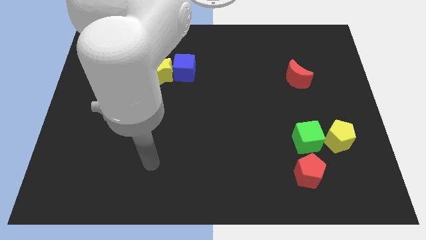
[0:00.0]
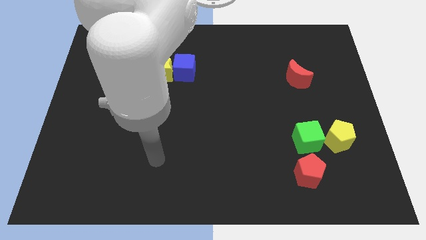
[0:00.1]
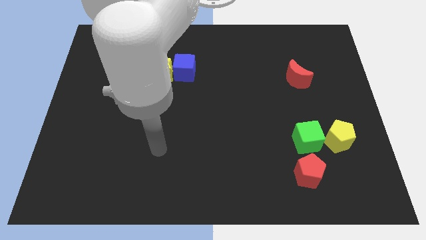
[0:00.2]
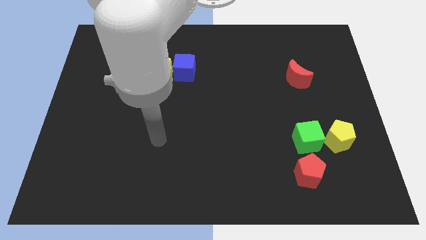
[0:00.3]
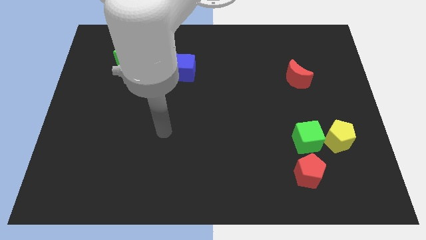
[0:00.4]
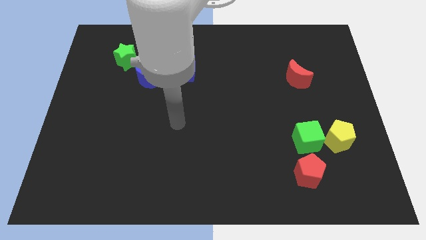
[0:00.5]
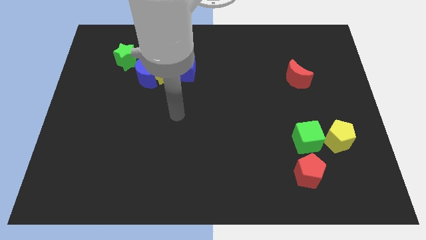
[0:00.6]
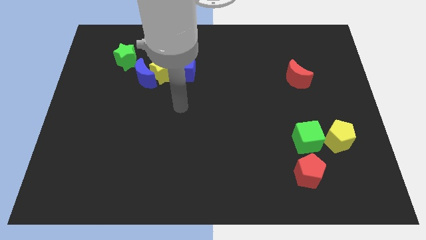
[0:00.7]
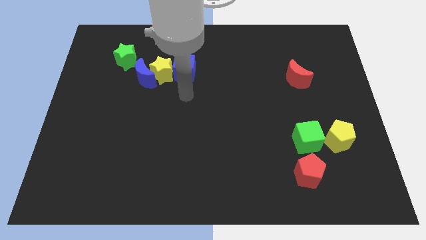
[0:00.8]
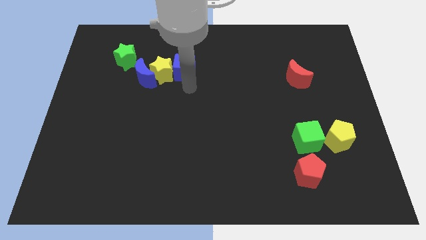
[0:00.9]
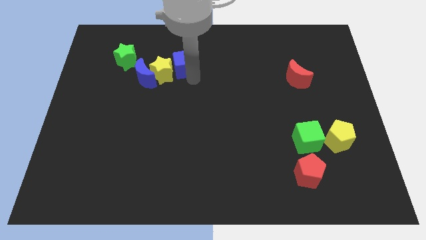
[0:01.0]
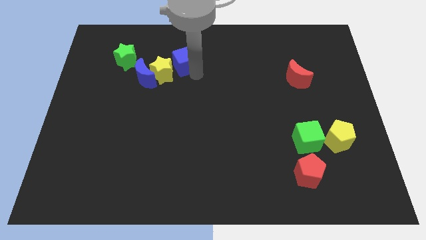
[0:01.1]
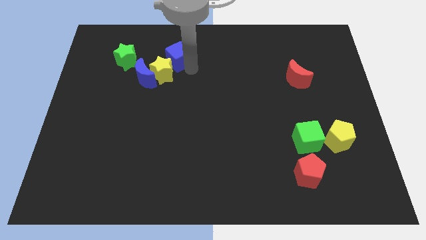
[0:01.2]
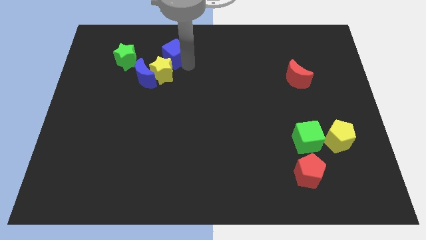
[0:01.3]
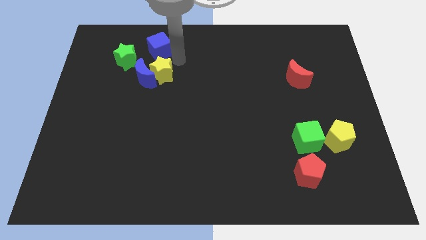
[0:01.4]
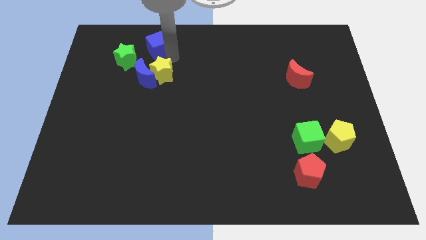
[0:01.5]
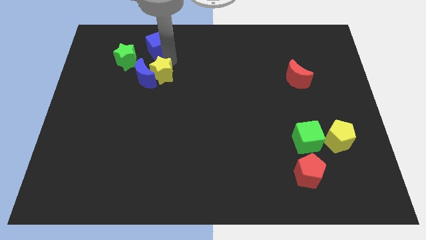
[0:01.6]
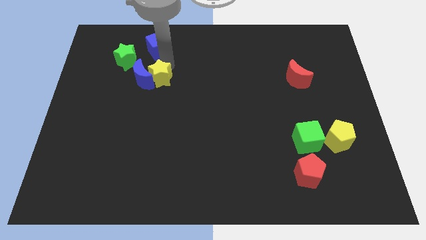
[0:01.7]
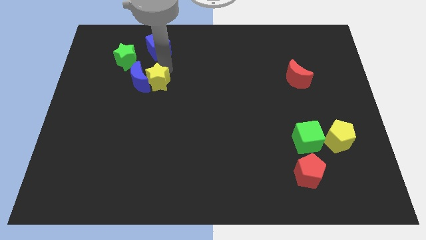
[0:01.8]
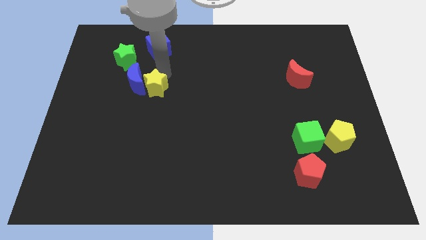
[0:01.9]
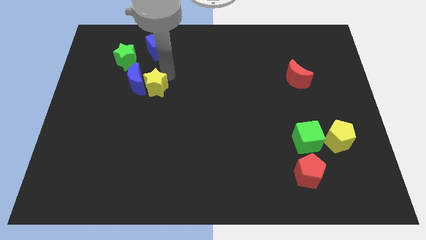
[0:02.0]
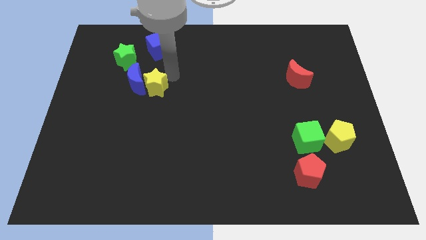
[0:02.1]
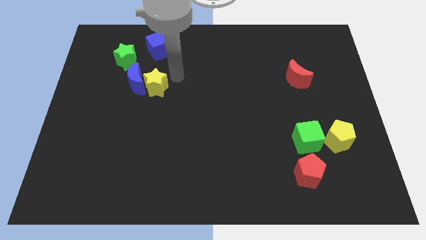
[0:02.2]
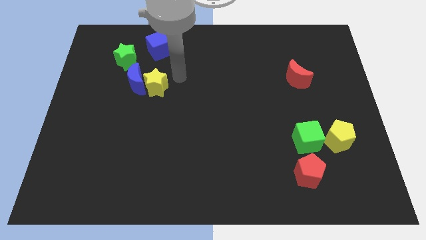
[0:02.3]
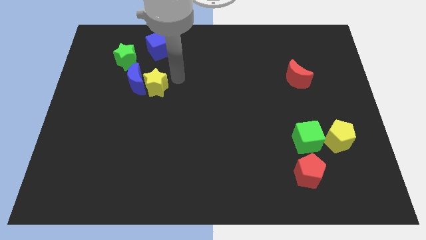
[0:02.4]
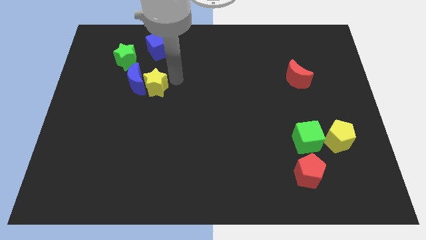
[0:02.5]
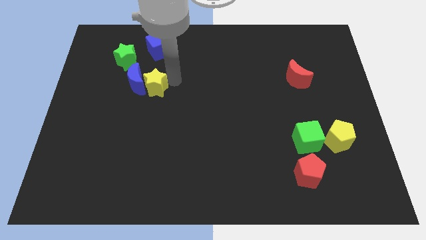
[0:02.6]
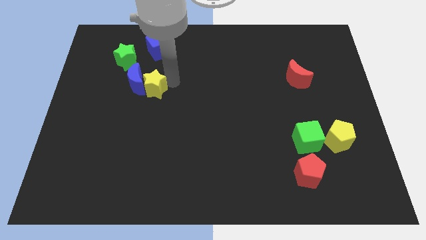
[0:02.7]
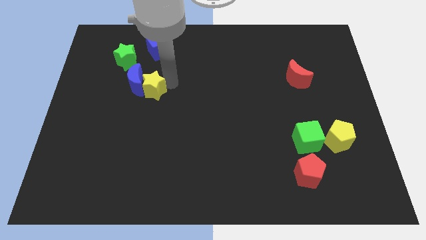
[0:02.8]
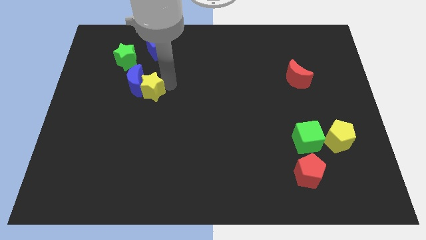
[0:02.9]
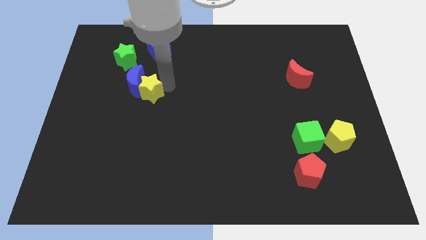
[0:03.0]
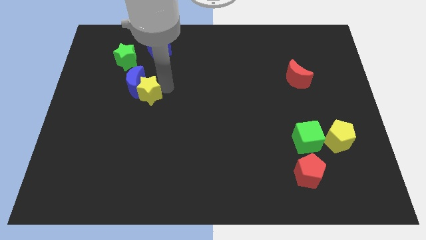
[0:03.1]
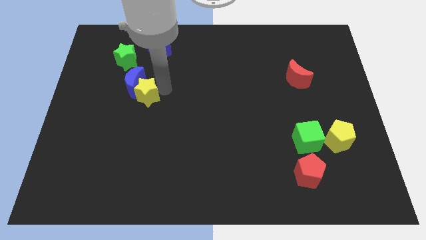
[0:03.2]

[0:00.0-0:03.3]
separate the yellow star from the blue moon and blue cube

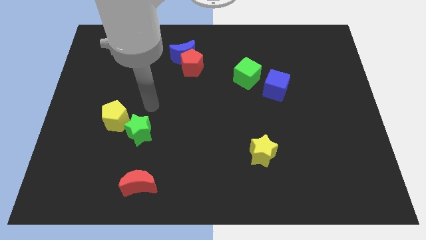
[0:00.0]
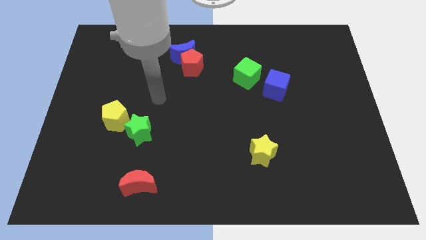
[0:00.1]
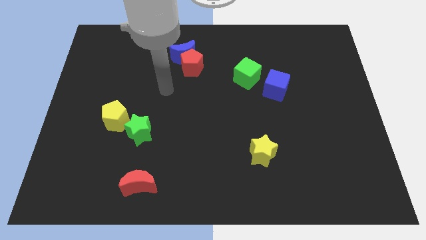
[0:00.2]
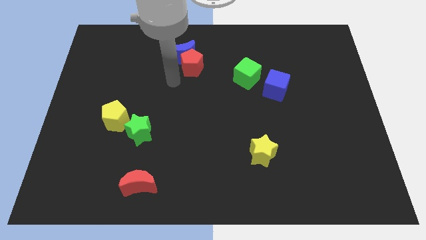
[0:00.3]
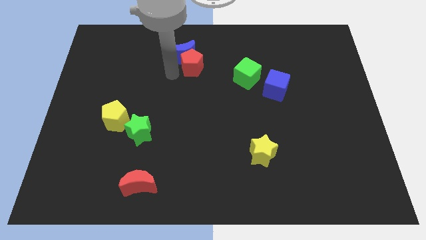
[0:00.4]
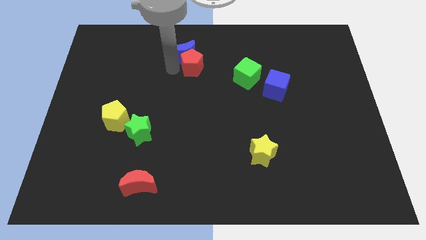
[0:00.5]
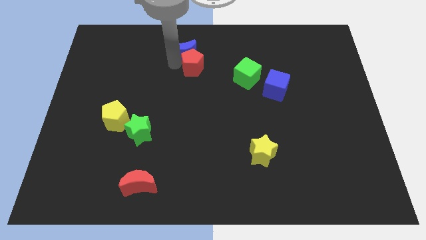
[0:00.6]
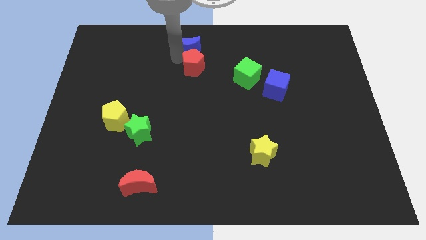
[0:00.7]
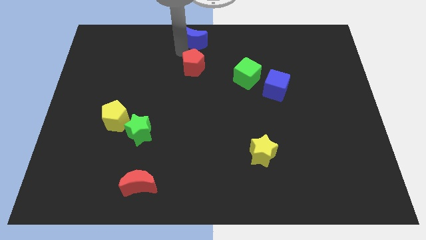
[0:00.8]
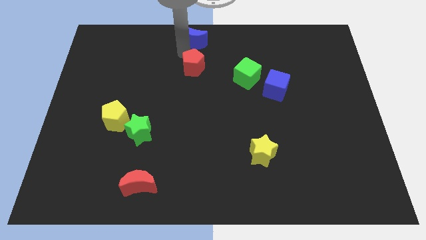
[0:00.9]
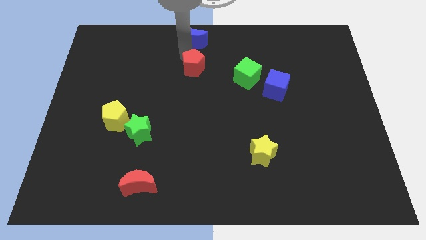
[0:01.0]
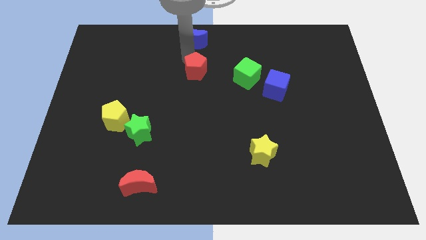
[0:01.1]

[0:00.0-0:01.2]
move the red pentagon away from the blue moon

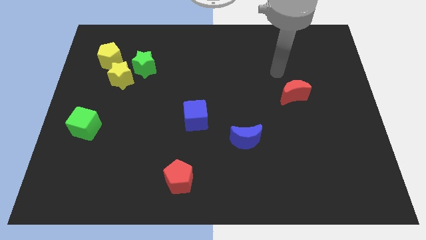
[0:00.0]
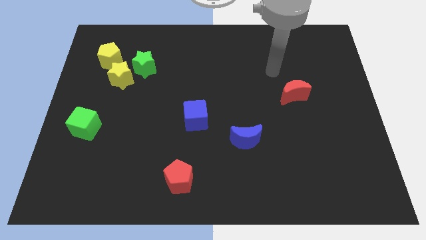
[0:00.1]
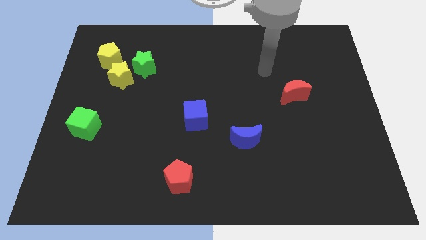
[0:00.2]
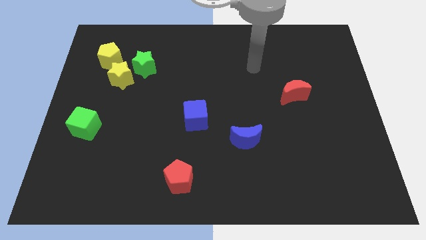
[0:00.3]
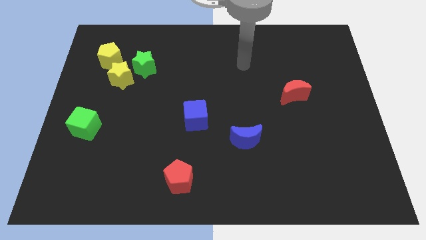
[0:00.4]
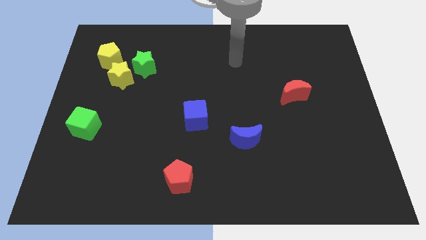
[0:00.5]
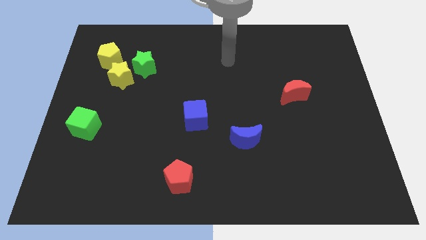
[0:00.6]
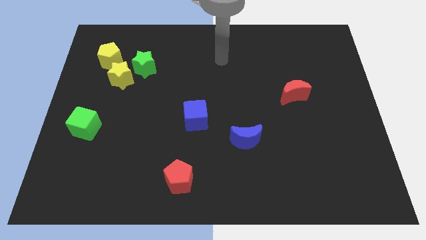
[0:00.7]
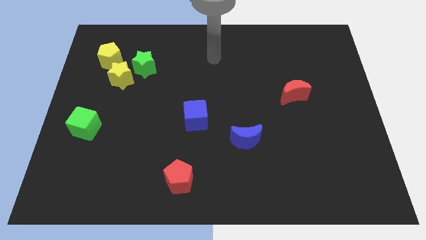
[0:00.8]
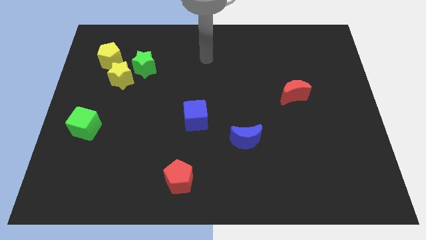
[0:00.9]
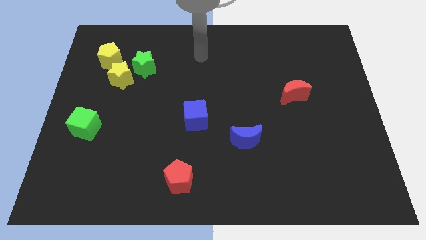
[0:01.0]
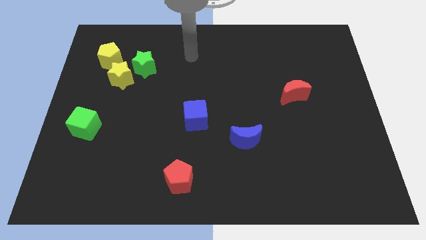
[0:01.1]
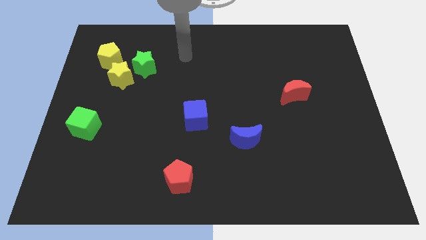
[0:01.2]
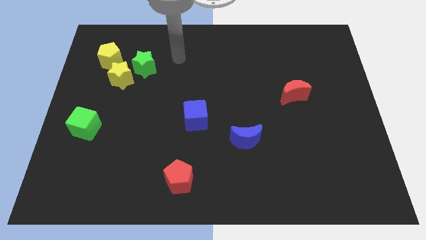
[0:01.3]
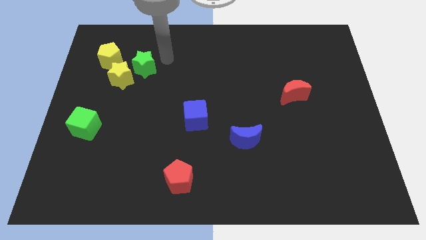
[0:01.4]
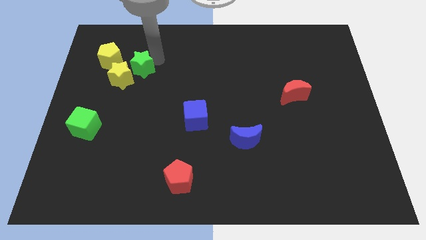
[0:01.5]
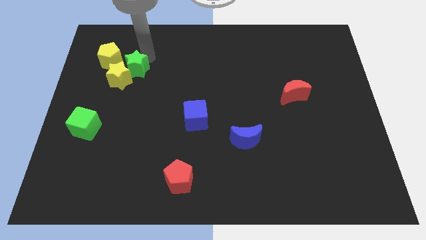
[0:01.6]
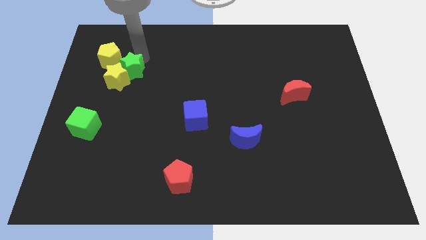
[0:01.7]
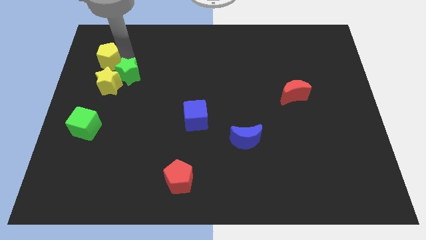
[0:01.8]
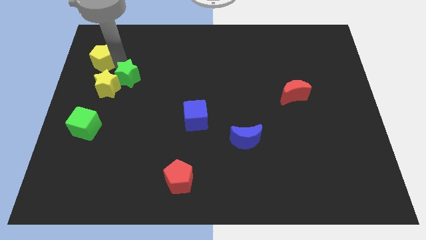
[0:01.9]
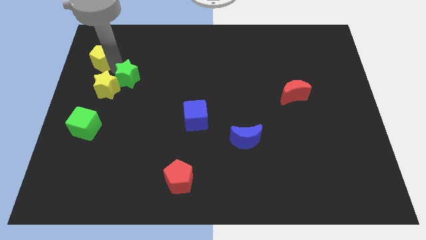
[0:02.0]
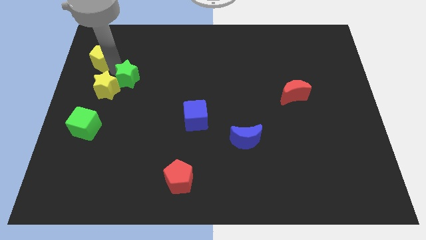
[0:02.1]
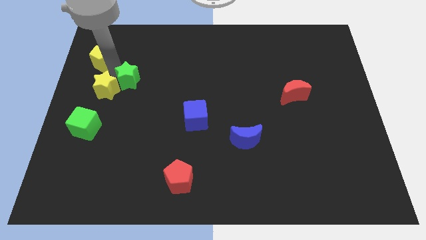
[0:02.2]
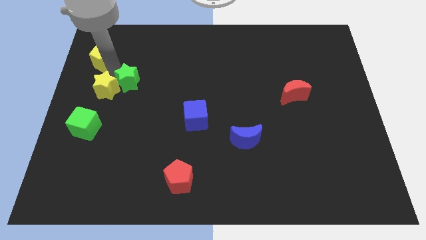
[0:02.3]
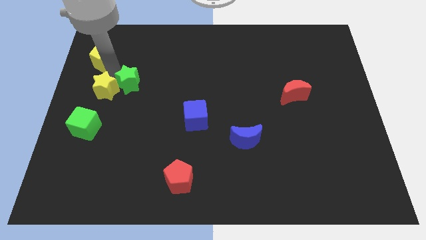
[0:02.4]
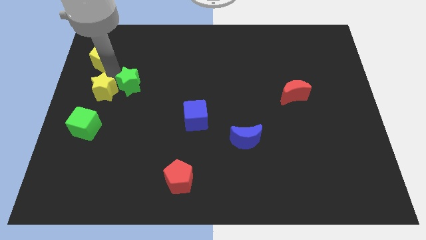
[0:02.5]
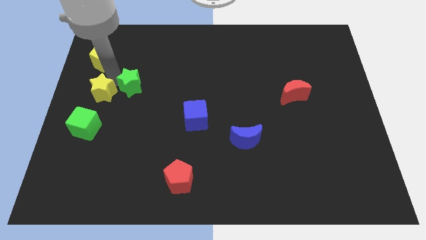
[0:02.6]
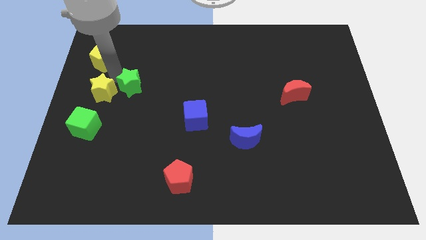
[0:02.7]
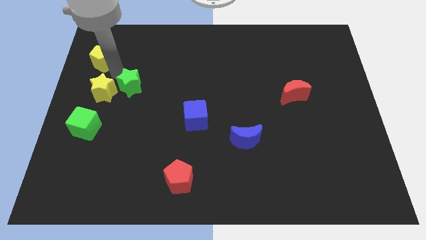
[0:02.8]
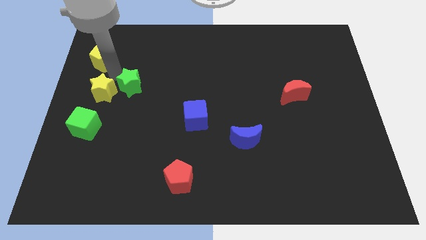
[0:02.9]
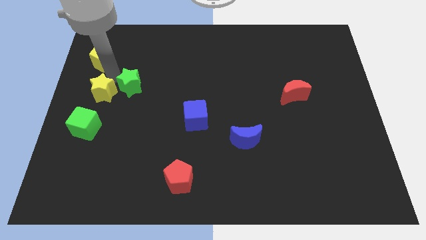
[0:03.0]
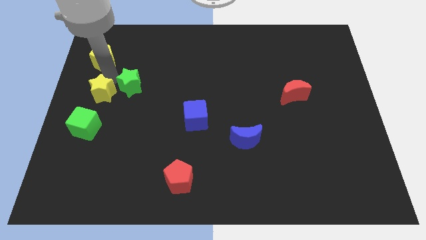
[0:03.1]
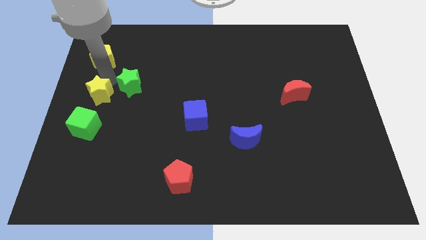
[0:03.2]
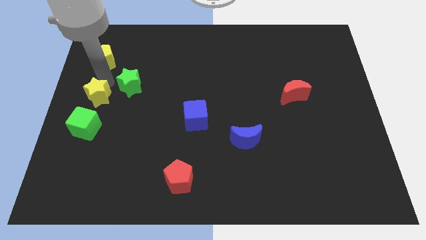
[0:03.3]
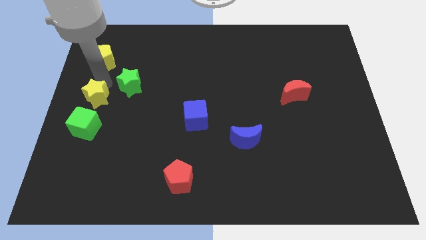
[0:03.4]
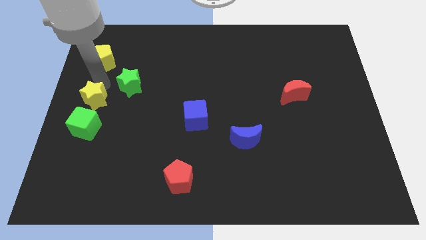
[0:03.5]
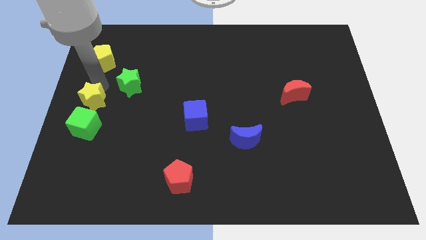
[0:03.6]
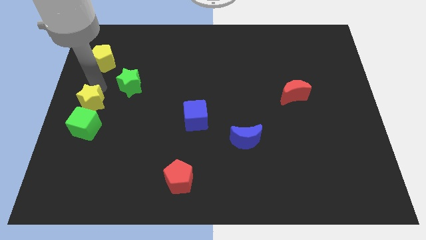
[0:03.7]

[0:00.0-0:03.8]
move the yellow star away from the green star and yellow pentagon

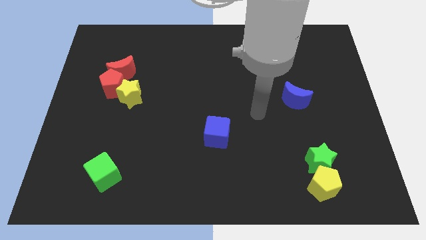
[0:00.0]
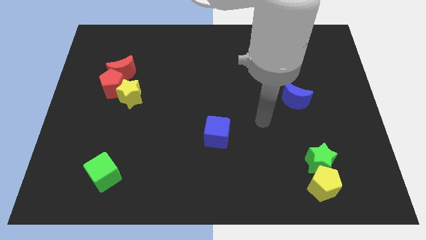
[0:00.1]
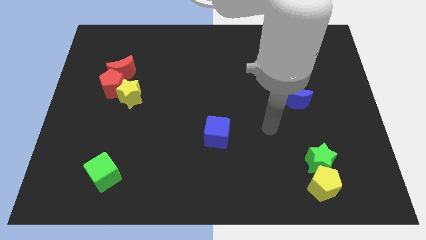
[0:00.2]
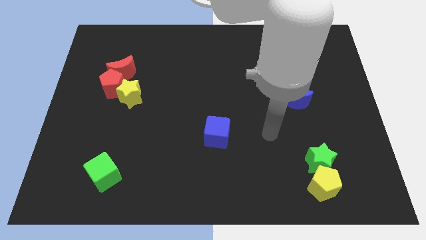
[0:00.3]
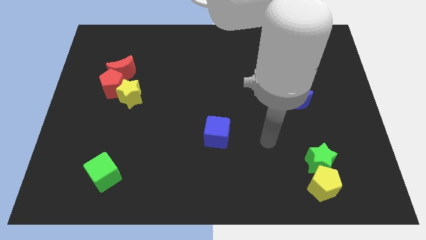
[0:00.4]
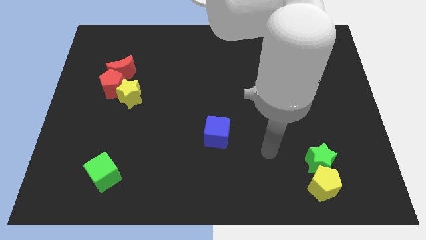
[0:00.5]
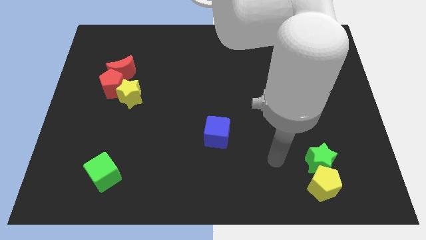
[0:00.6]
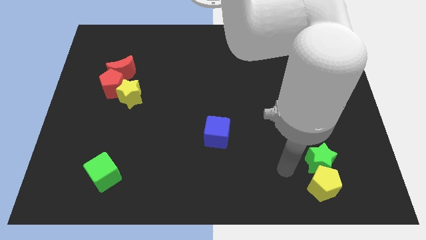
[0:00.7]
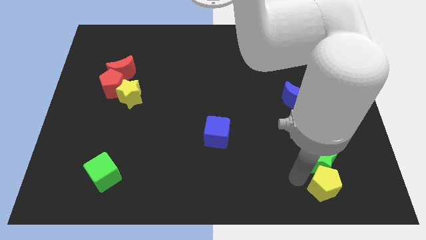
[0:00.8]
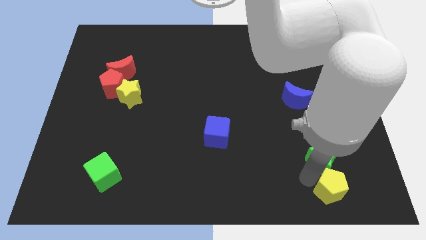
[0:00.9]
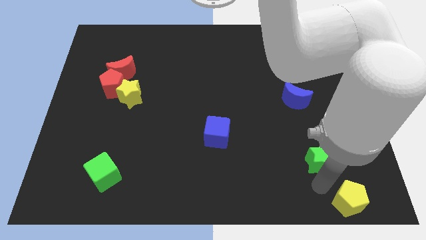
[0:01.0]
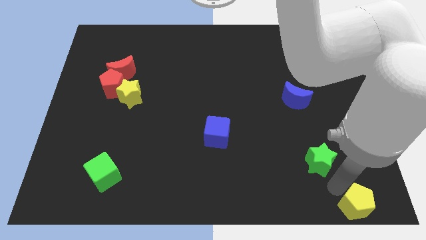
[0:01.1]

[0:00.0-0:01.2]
pull the green star apart from the yellow pentagon

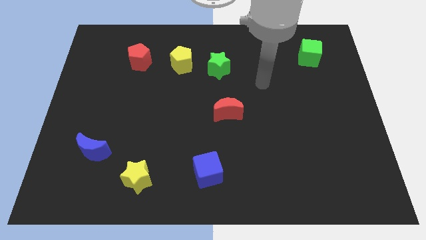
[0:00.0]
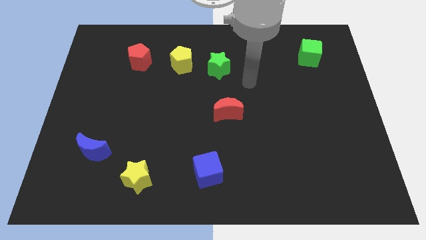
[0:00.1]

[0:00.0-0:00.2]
move the green star away from the yellow pentagon
